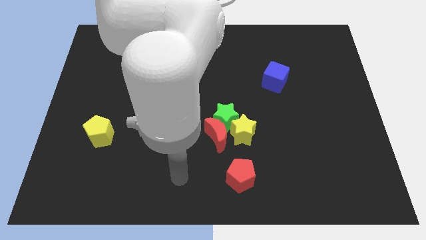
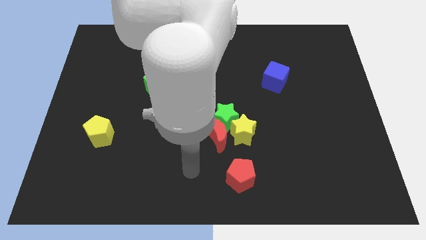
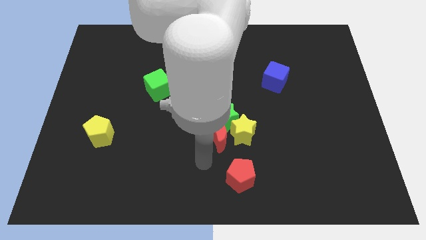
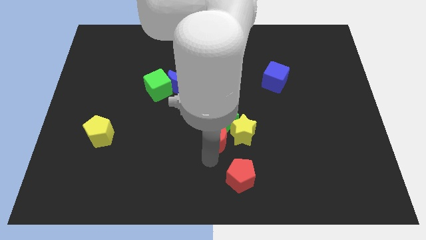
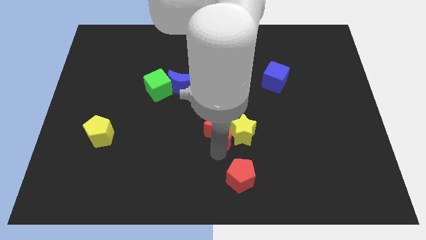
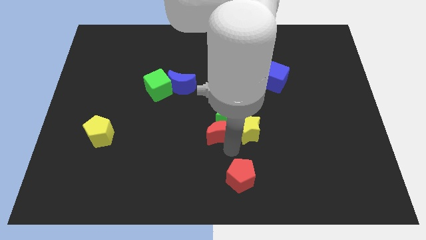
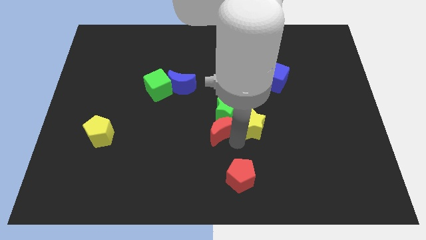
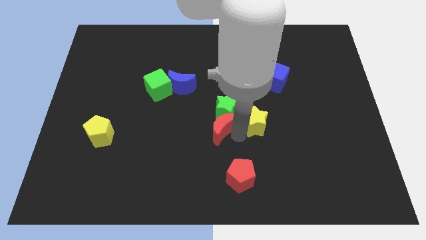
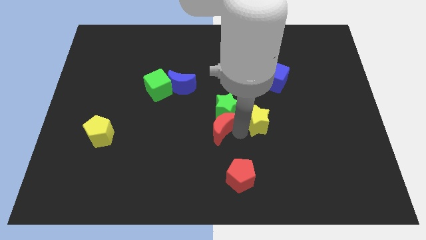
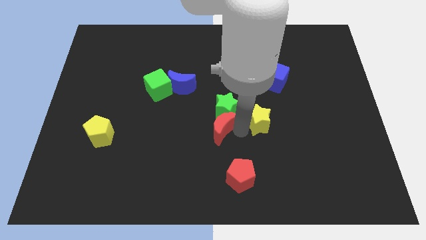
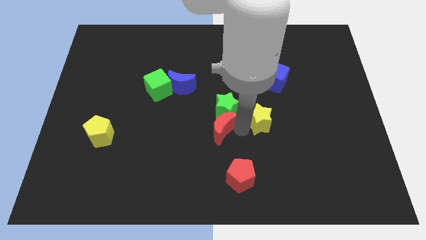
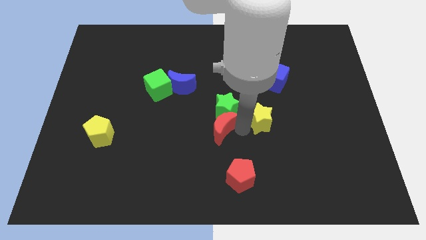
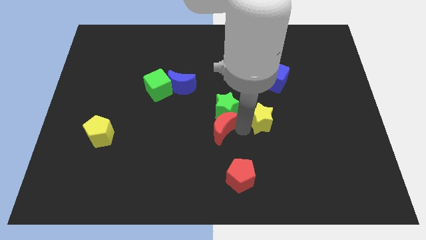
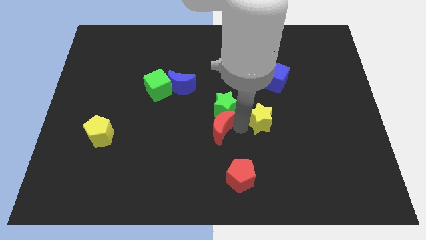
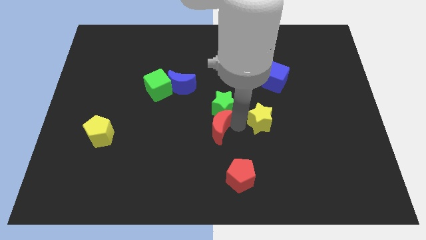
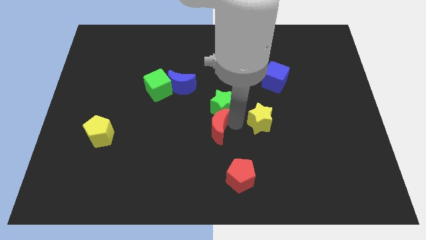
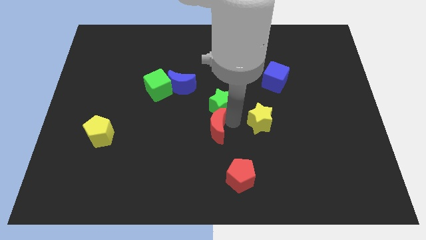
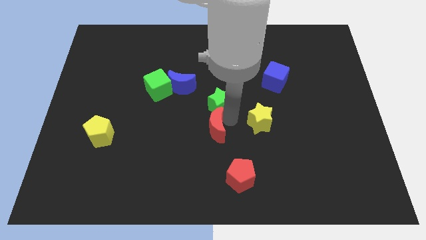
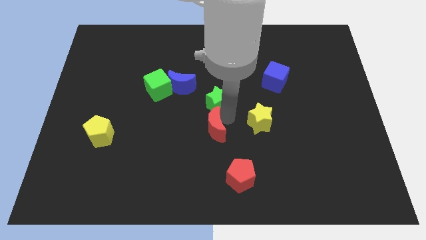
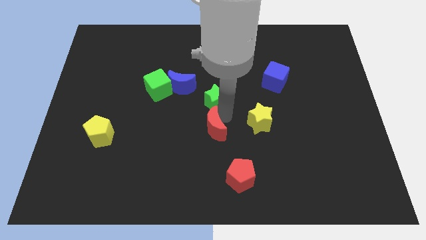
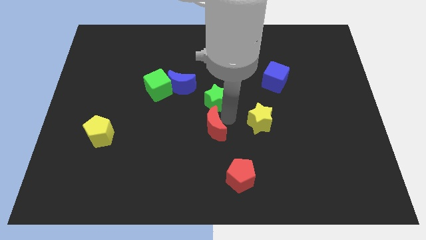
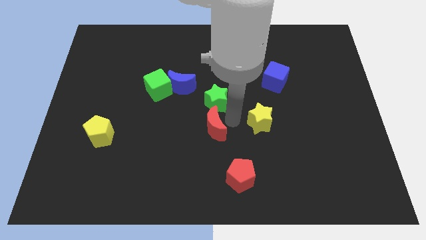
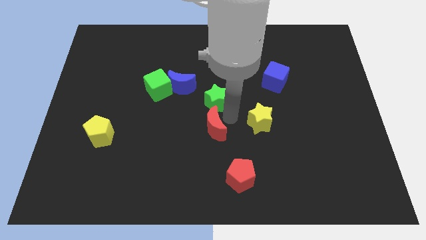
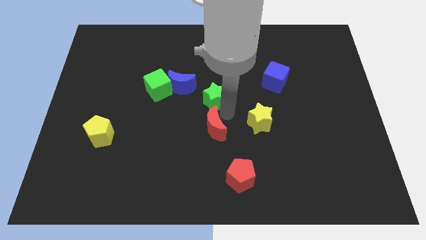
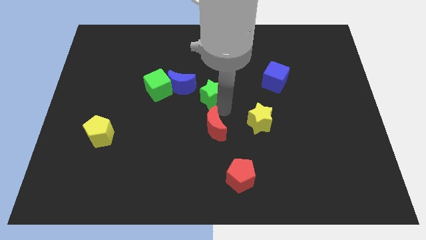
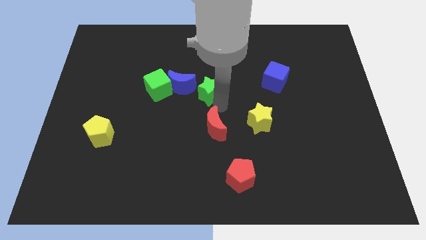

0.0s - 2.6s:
pull the green star apart from the red moon and yellow star

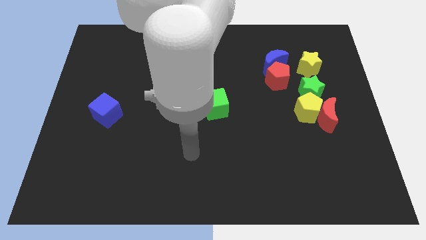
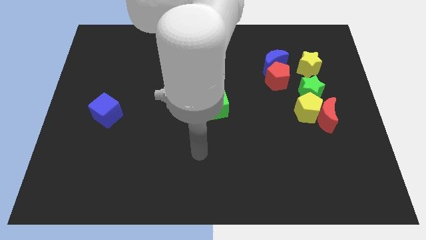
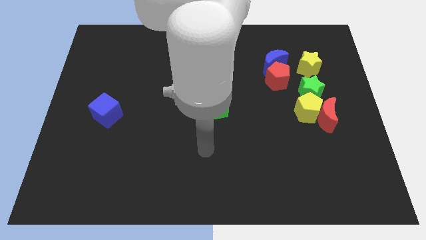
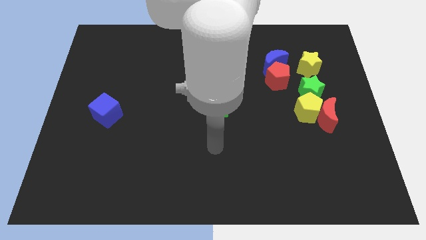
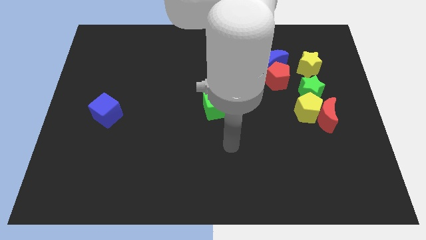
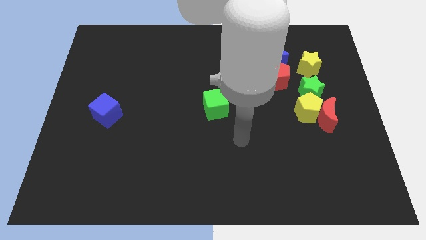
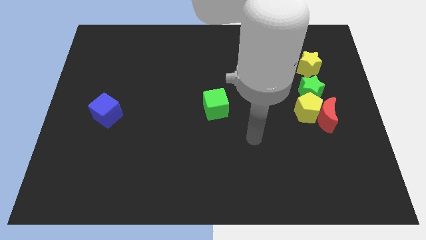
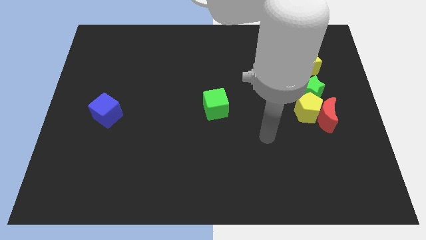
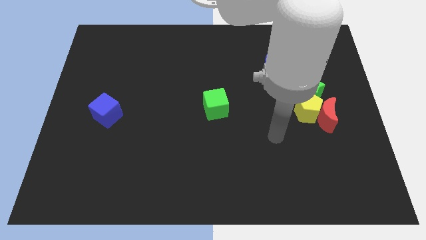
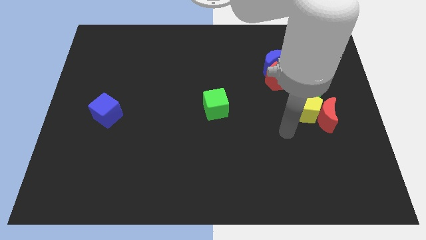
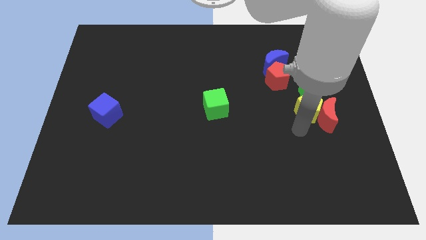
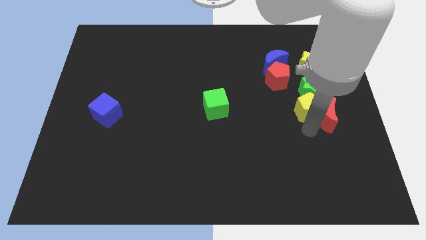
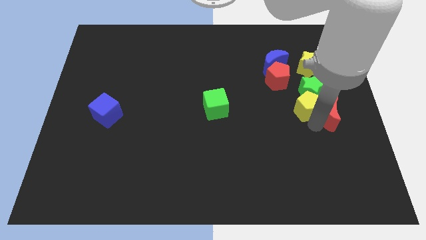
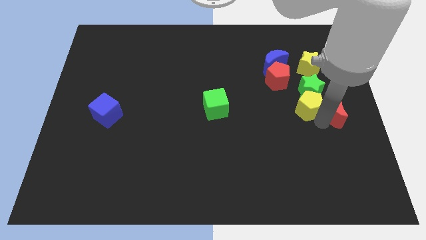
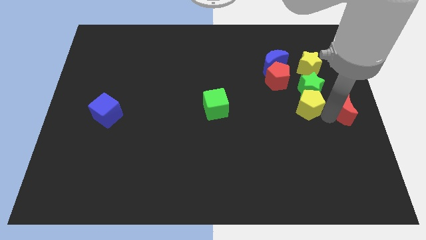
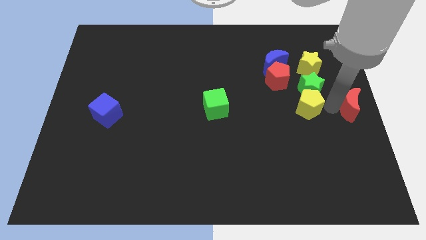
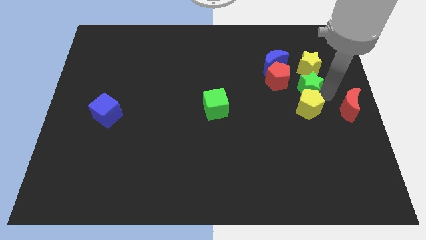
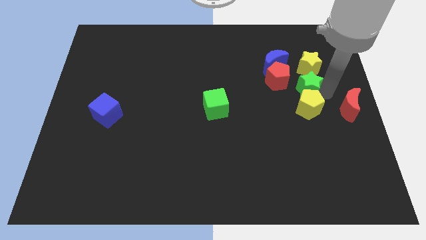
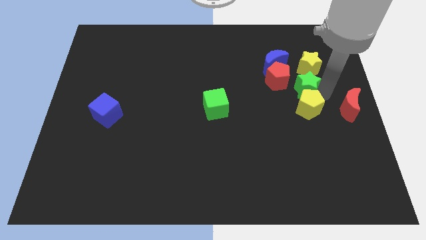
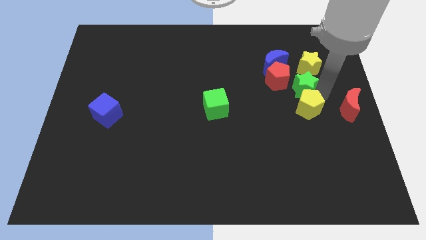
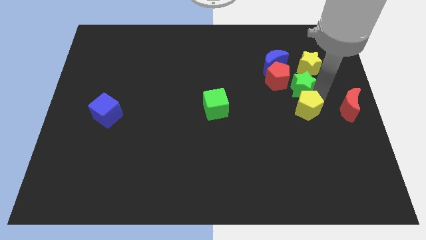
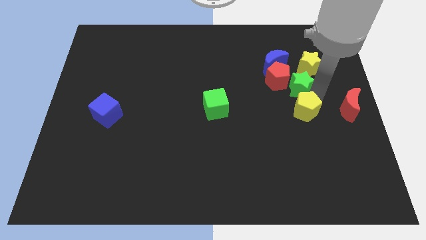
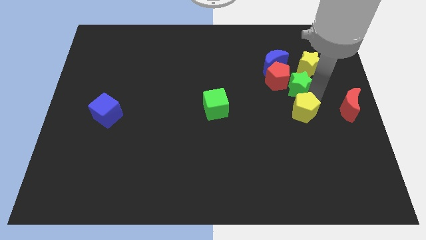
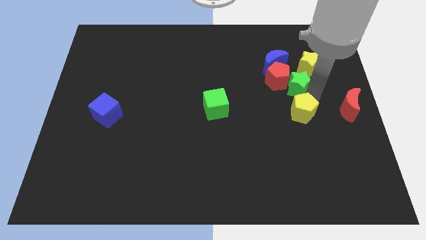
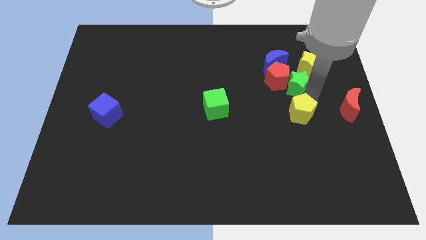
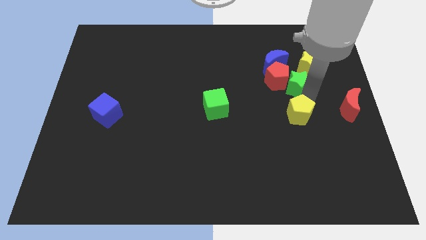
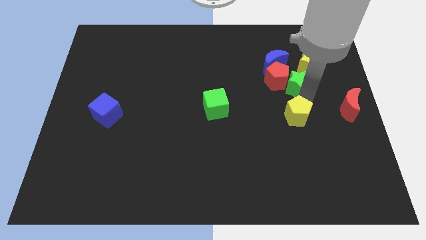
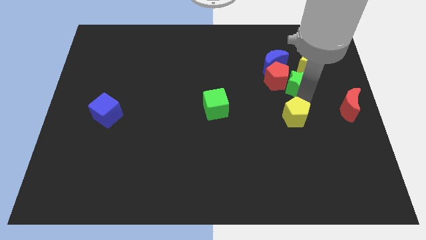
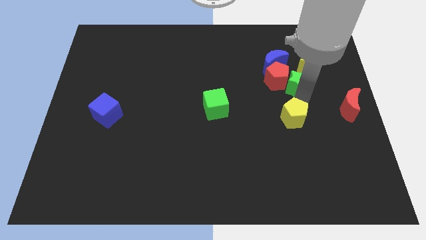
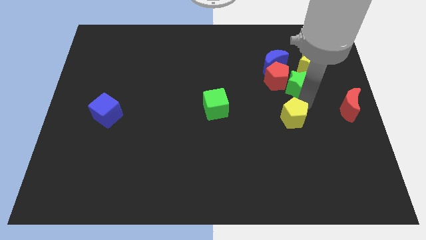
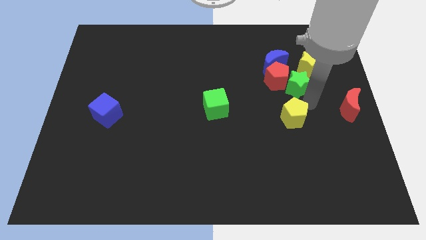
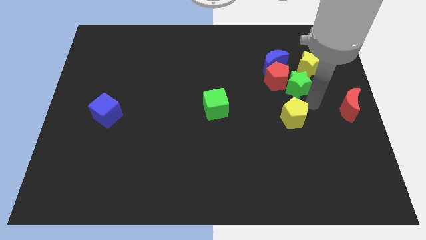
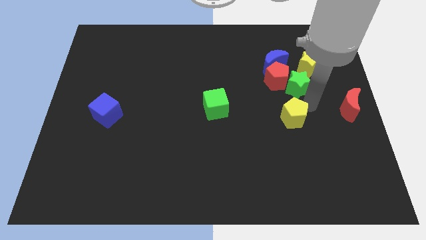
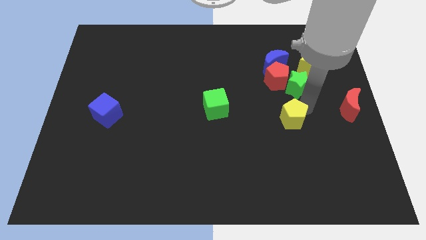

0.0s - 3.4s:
separate the yellow pentagon from the red moon and green star

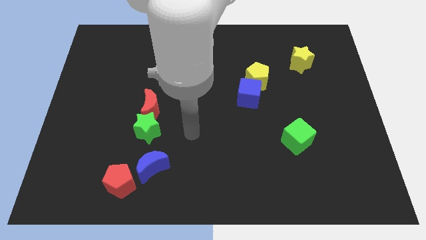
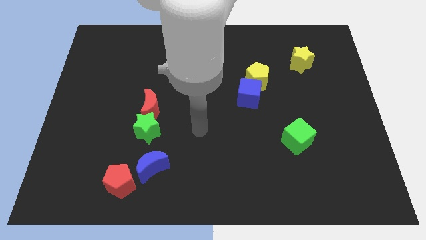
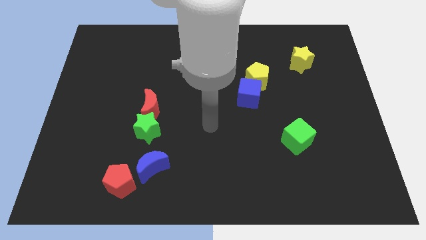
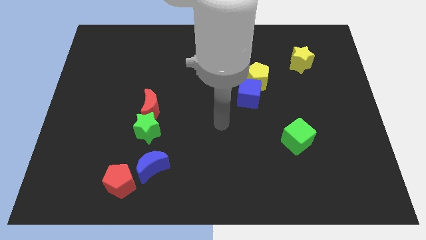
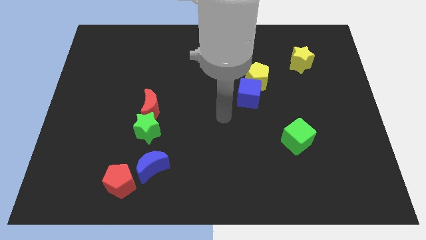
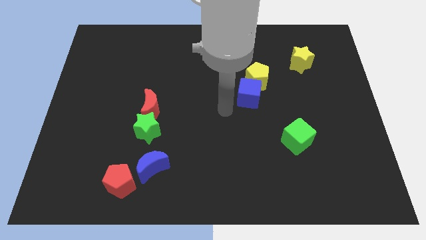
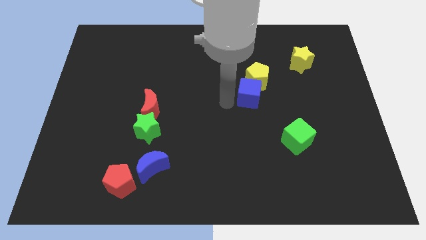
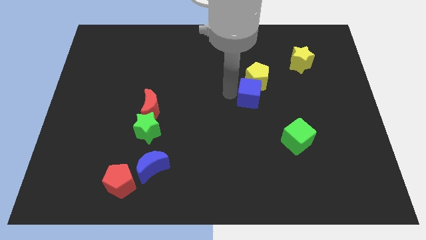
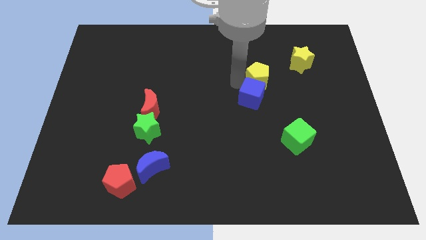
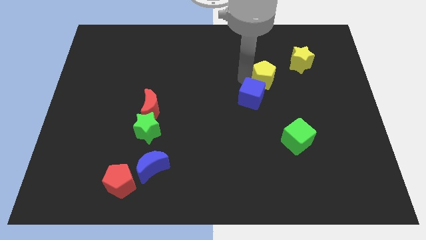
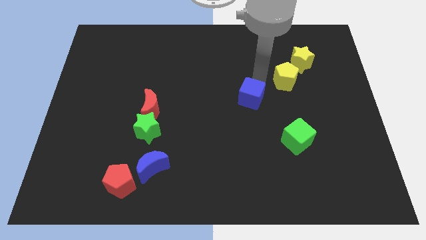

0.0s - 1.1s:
separate the blue cube from the yellow pentagon

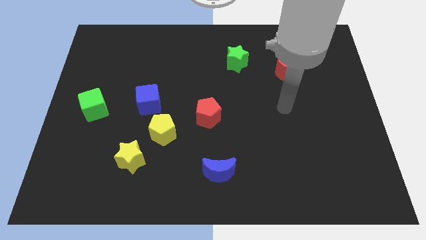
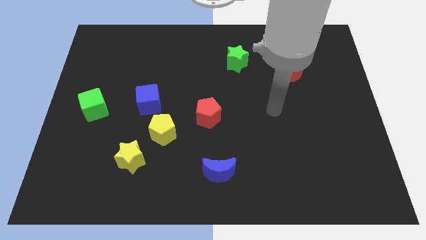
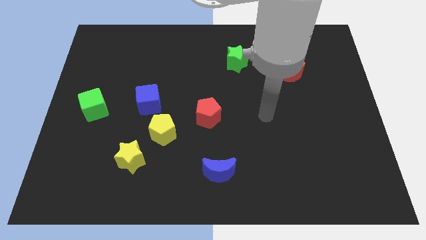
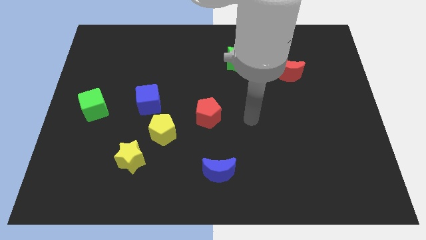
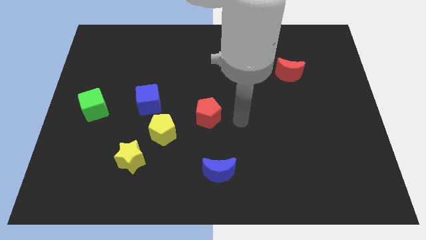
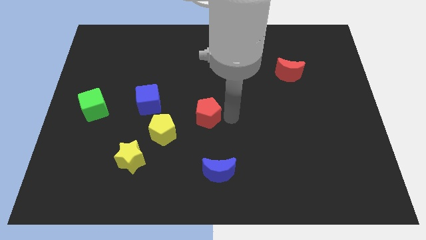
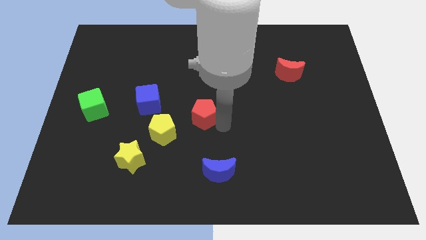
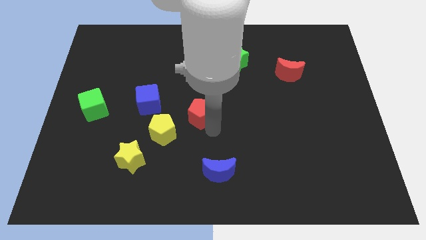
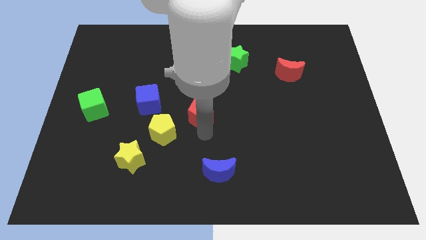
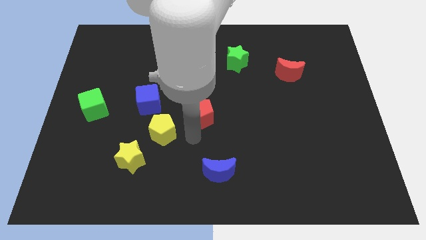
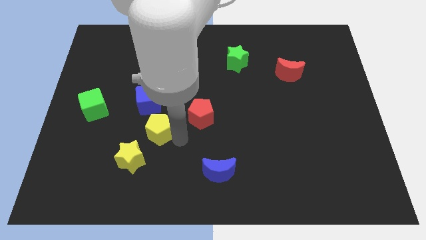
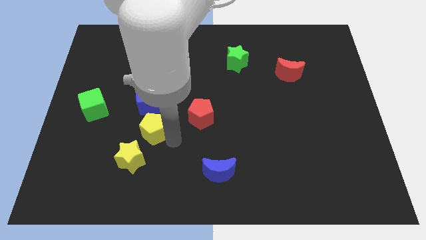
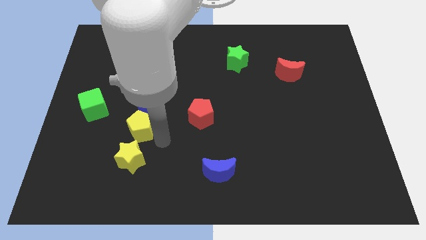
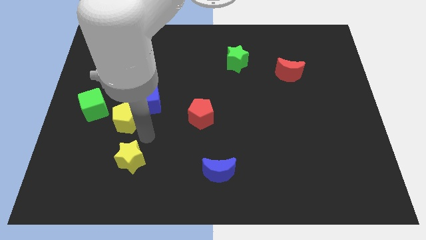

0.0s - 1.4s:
separate the yellow star from the yellow pentagon

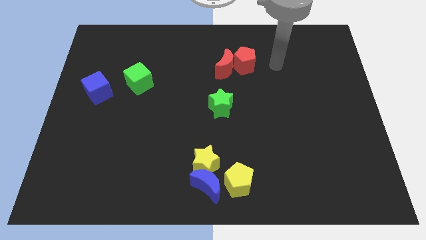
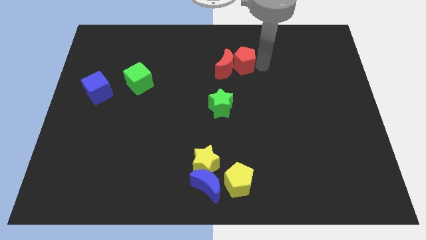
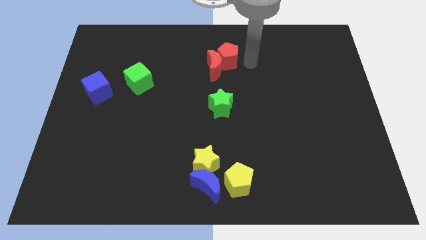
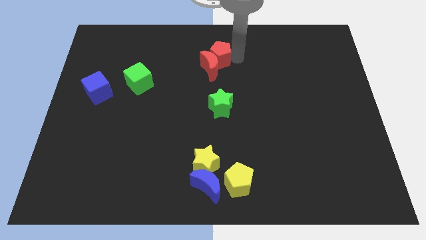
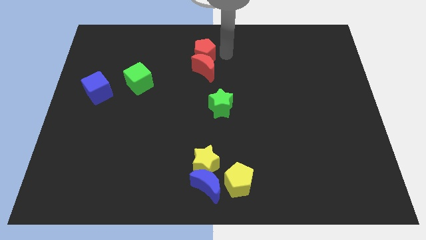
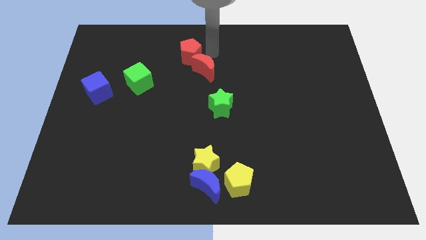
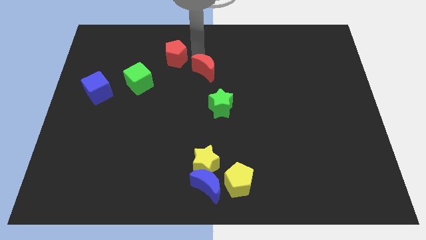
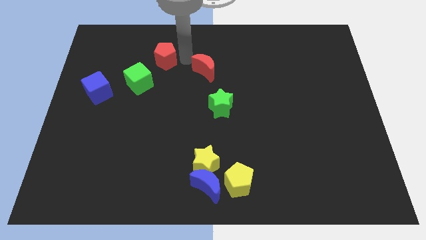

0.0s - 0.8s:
pull the red moon apart from the red pentagon

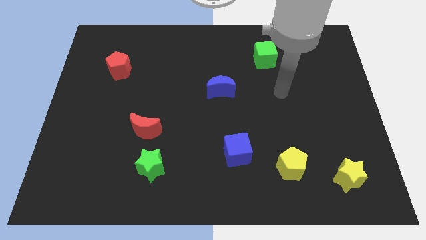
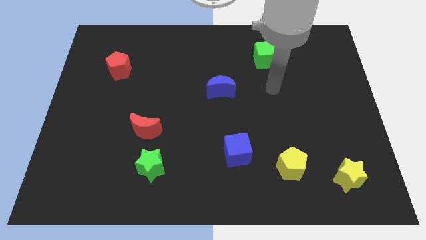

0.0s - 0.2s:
pull the red moon apart from the green star

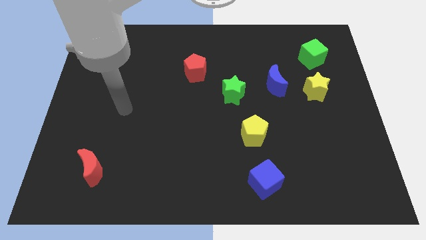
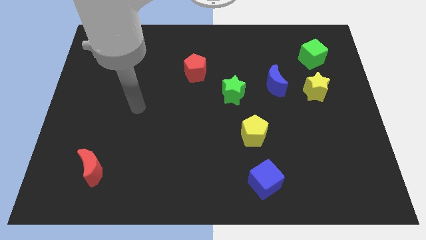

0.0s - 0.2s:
separate the blue moon from the yellow star
